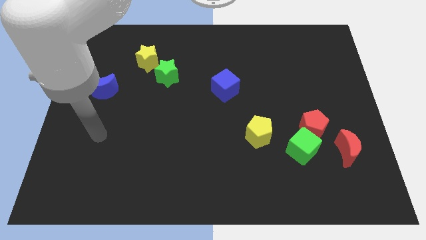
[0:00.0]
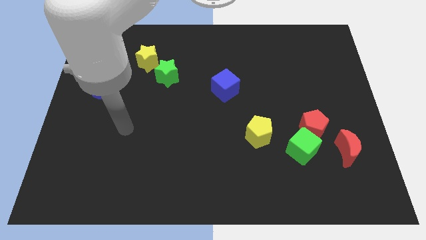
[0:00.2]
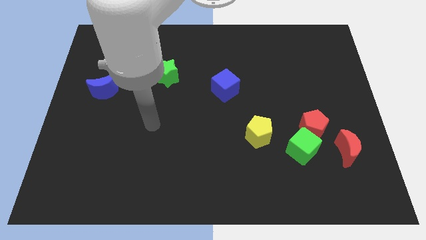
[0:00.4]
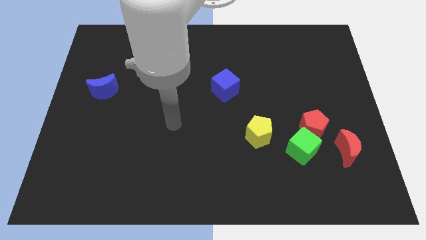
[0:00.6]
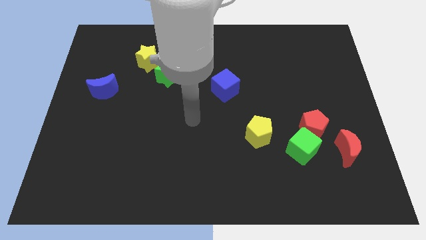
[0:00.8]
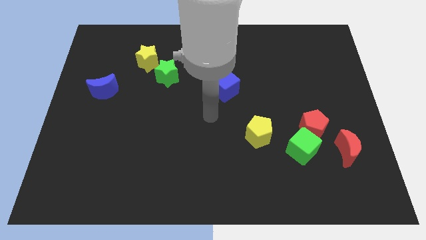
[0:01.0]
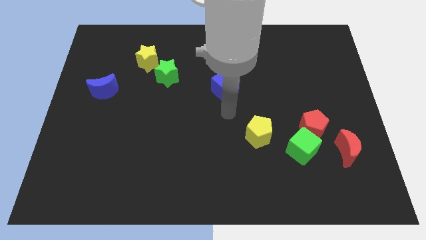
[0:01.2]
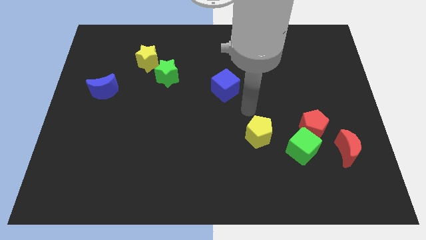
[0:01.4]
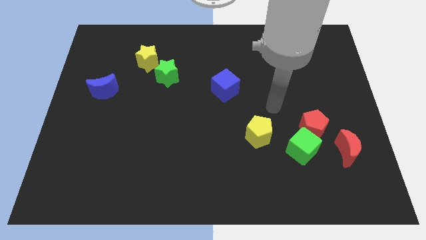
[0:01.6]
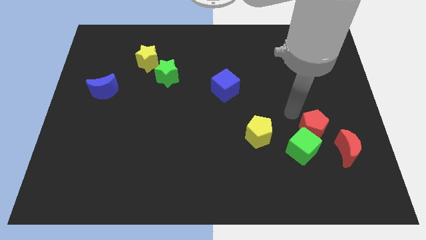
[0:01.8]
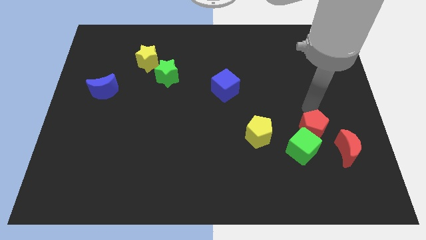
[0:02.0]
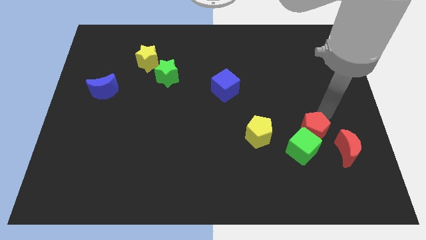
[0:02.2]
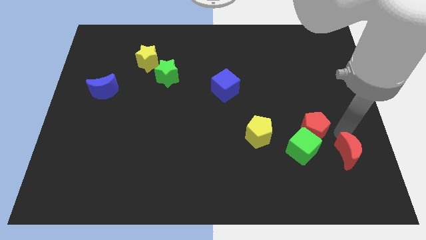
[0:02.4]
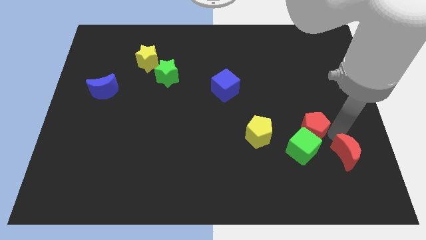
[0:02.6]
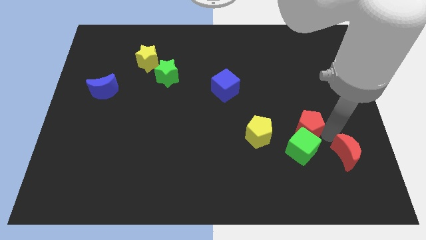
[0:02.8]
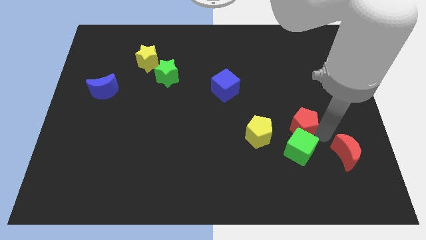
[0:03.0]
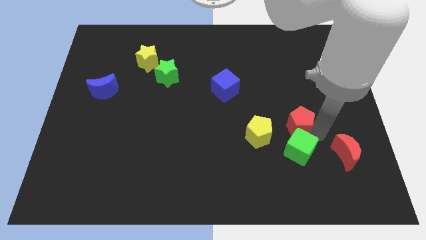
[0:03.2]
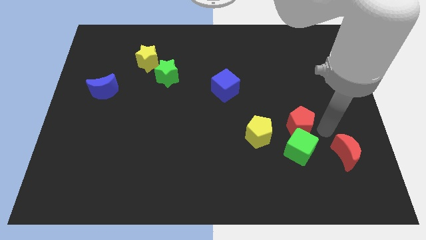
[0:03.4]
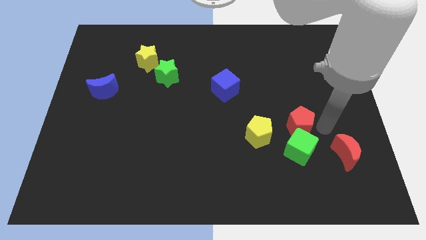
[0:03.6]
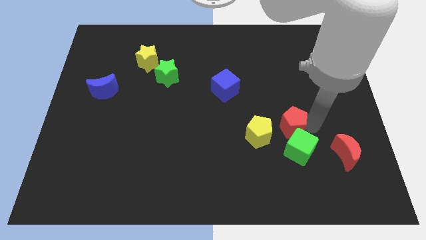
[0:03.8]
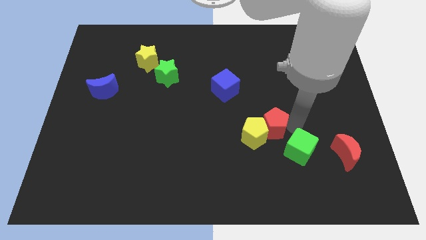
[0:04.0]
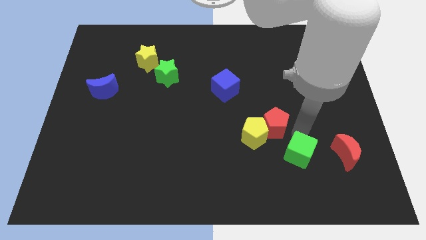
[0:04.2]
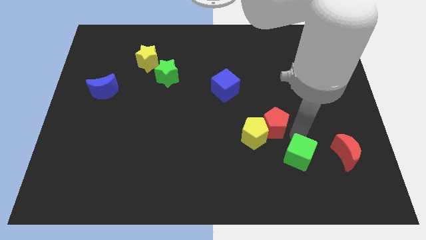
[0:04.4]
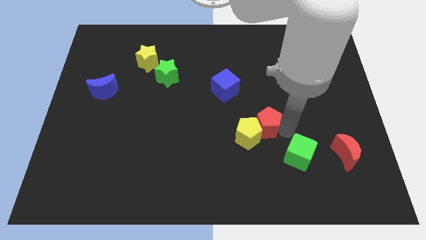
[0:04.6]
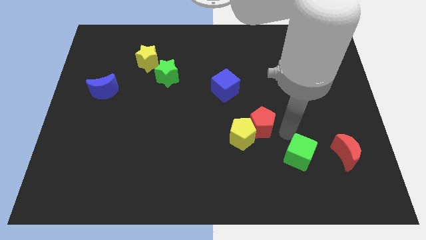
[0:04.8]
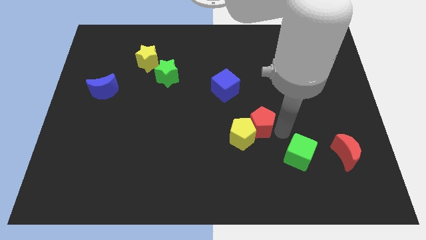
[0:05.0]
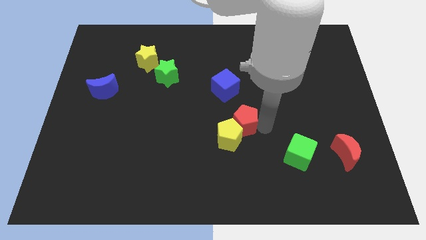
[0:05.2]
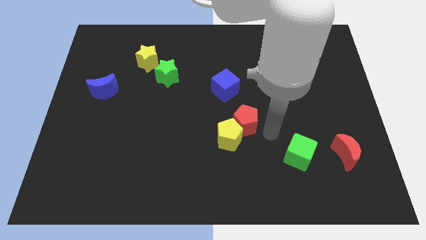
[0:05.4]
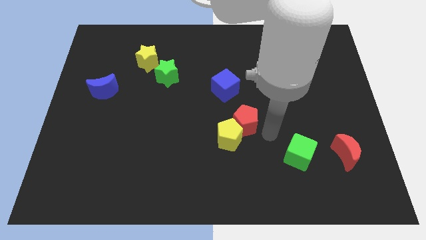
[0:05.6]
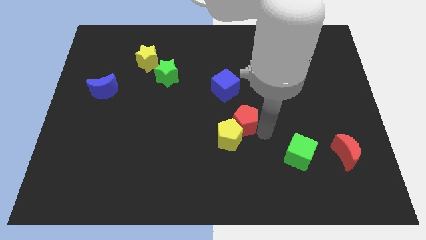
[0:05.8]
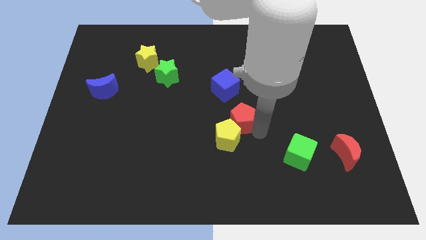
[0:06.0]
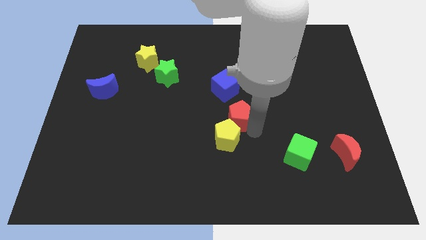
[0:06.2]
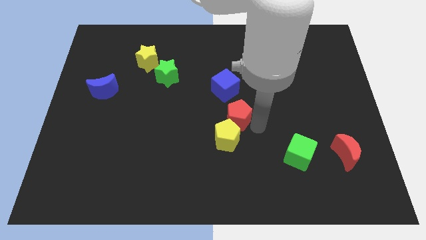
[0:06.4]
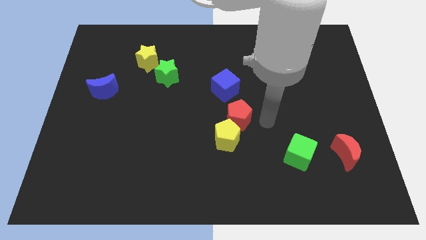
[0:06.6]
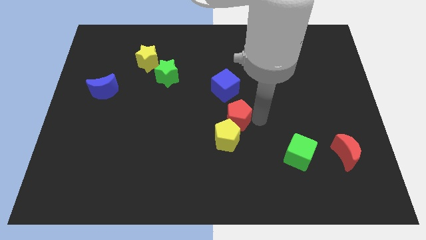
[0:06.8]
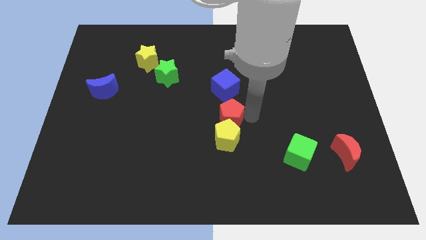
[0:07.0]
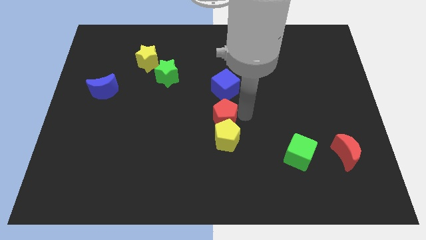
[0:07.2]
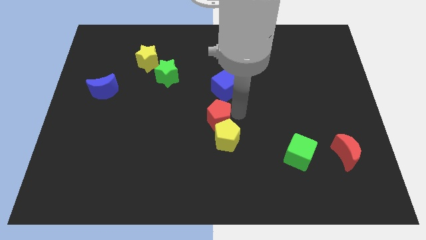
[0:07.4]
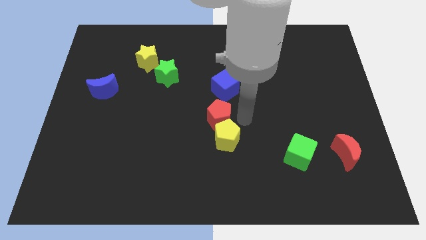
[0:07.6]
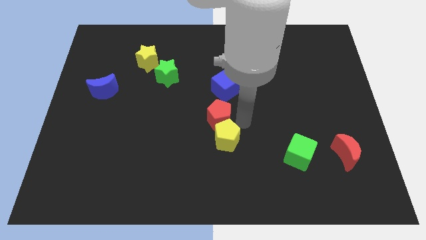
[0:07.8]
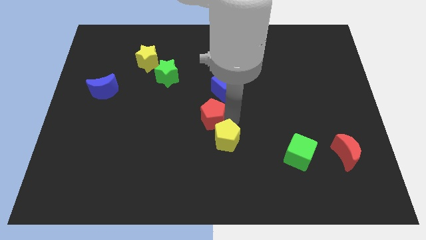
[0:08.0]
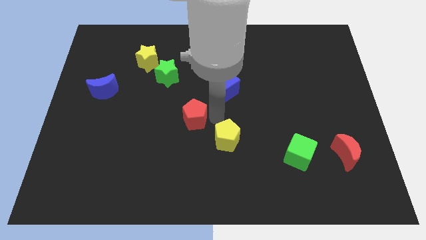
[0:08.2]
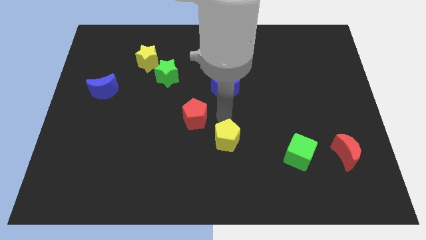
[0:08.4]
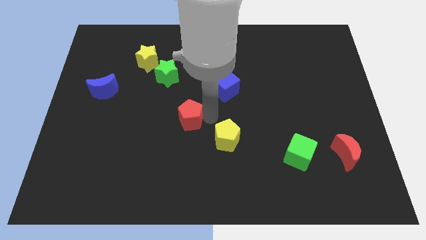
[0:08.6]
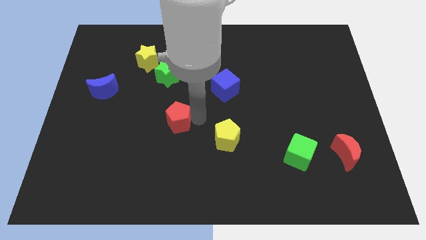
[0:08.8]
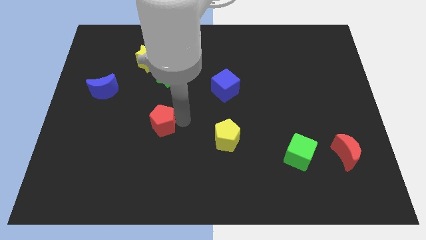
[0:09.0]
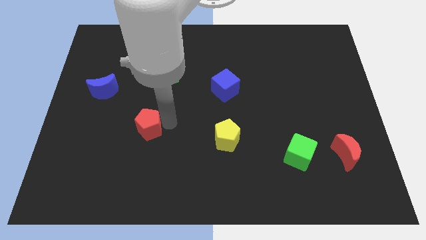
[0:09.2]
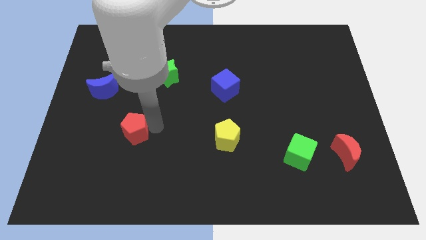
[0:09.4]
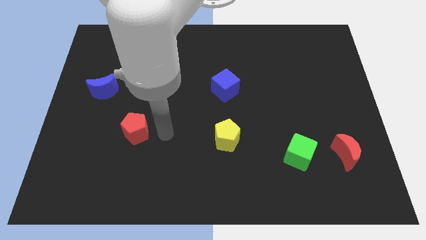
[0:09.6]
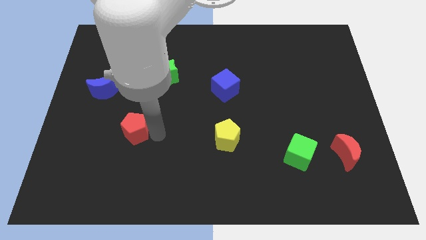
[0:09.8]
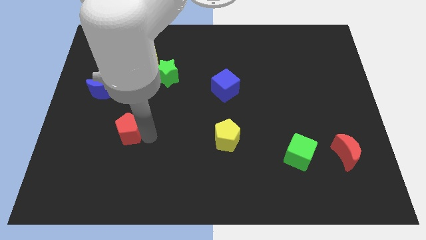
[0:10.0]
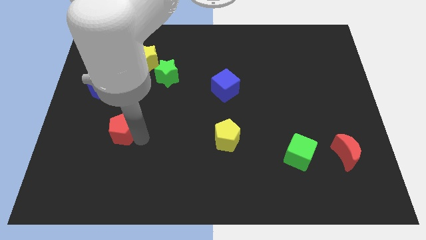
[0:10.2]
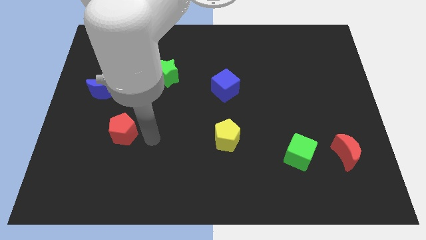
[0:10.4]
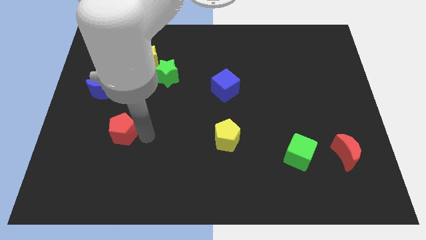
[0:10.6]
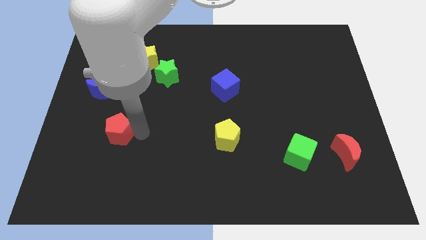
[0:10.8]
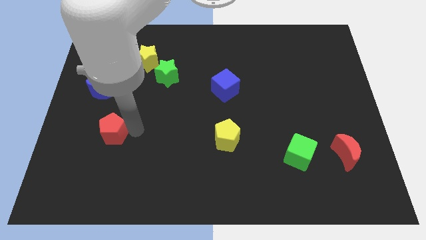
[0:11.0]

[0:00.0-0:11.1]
move the red pentagon to the bottom side of the blue moon

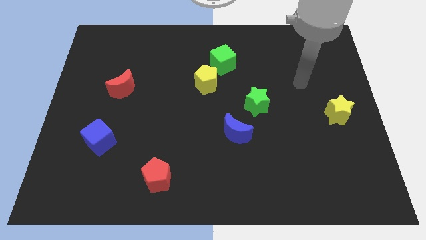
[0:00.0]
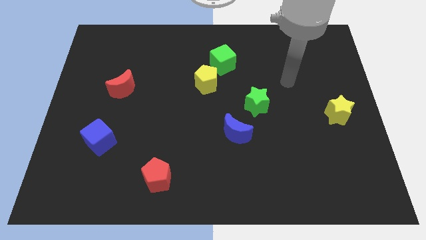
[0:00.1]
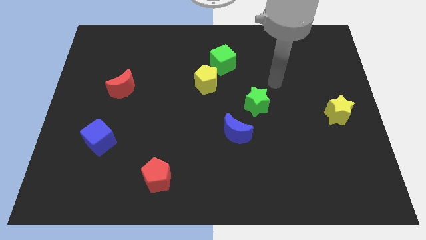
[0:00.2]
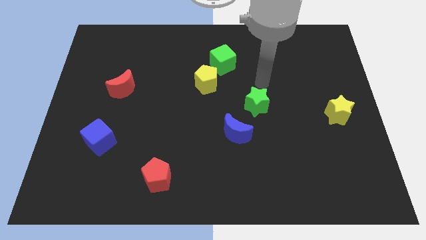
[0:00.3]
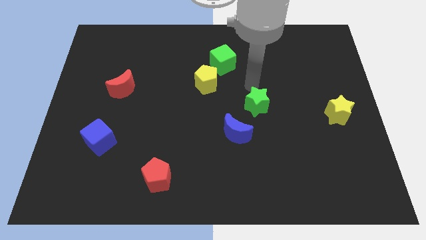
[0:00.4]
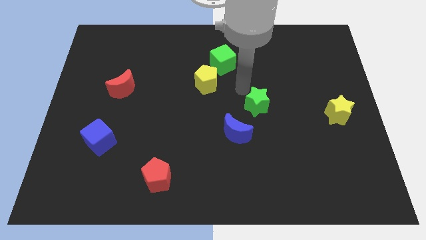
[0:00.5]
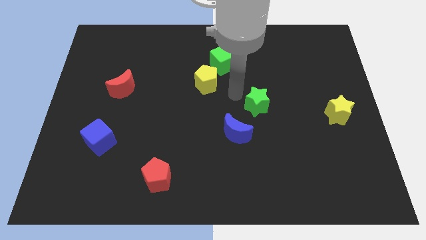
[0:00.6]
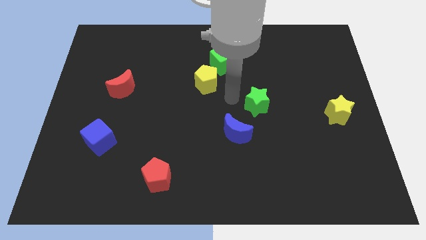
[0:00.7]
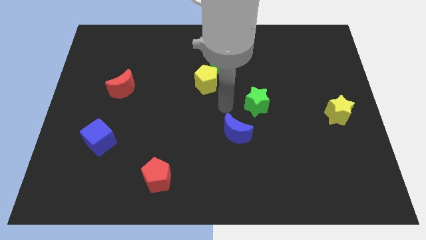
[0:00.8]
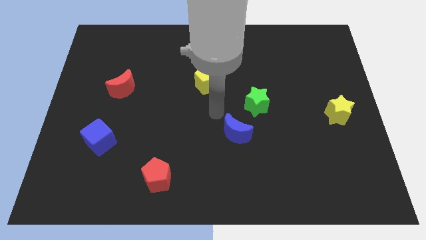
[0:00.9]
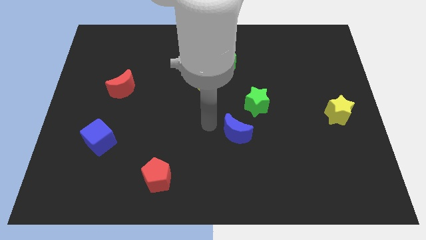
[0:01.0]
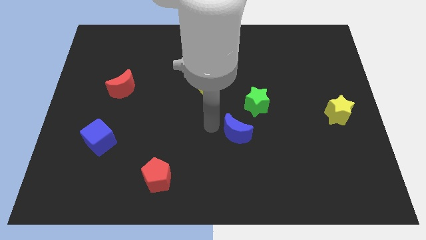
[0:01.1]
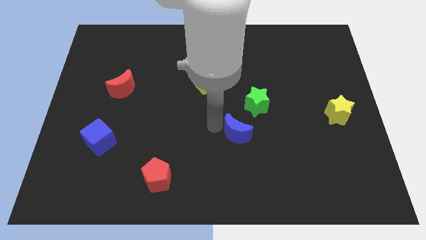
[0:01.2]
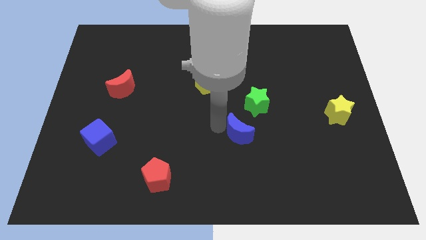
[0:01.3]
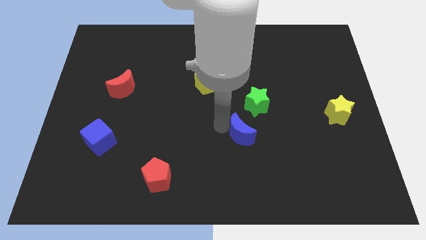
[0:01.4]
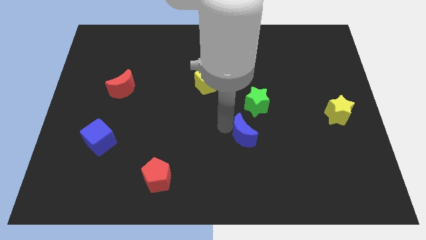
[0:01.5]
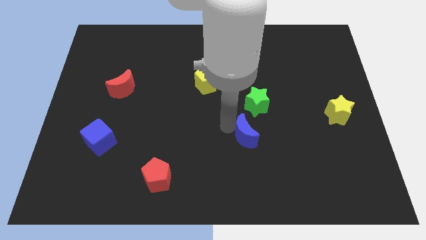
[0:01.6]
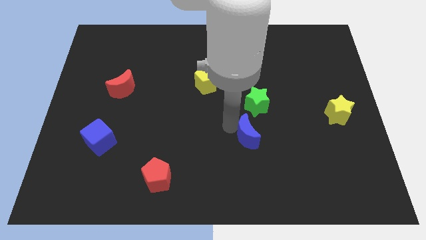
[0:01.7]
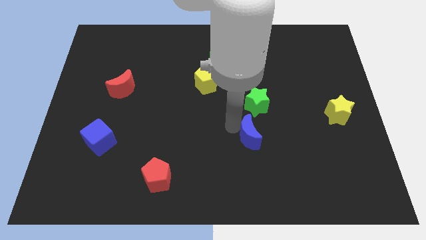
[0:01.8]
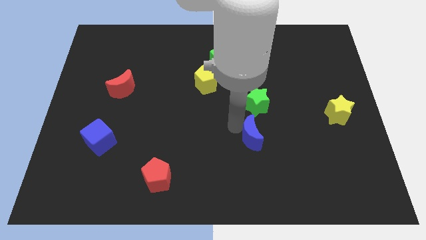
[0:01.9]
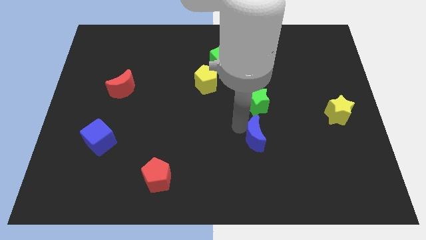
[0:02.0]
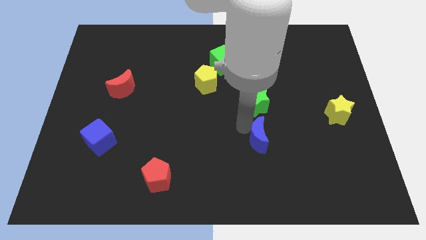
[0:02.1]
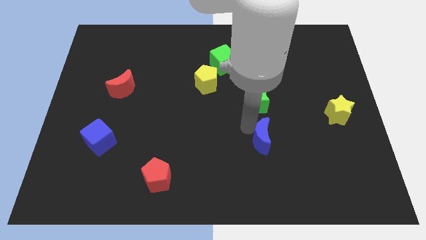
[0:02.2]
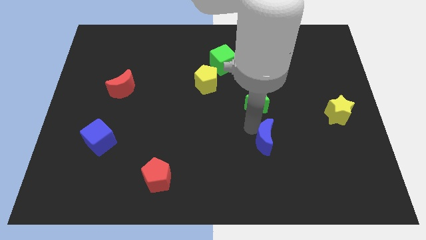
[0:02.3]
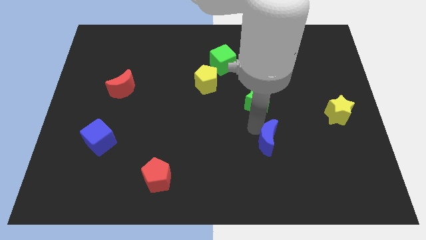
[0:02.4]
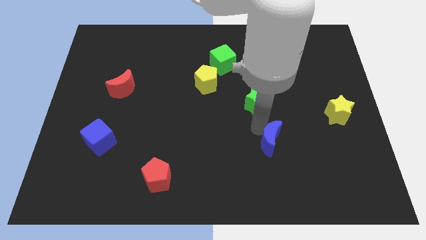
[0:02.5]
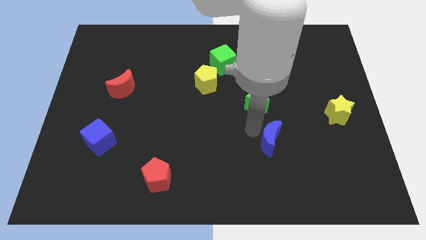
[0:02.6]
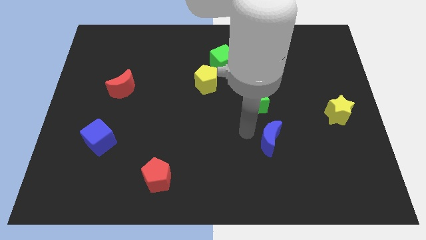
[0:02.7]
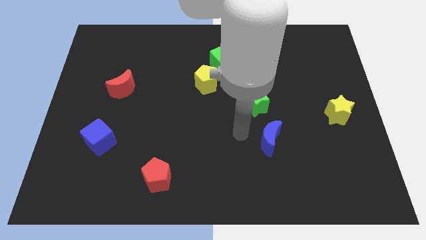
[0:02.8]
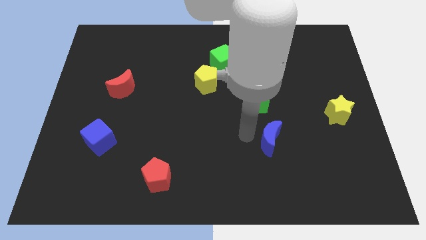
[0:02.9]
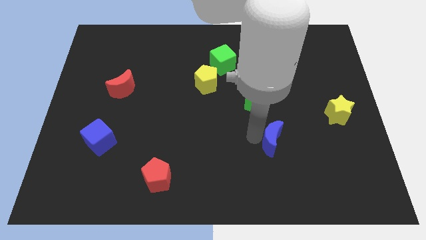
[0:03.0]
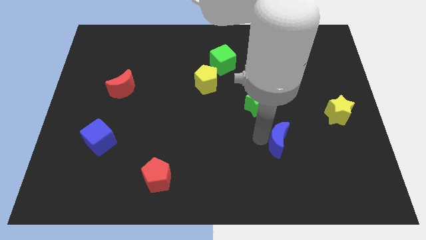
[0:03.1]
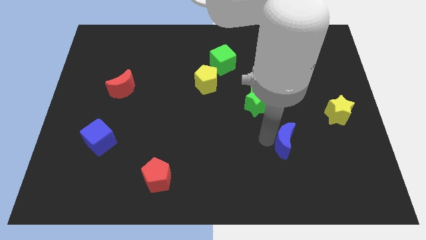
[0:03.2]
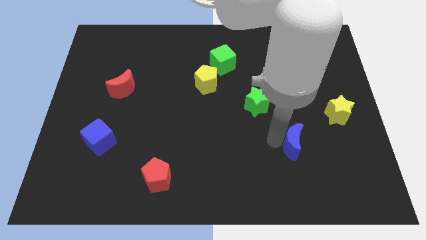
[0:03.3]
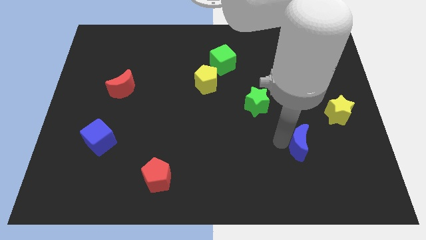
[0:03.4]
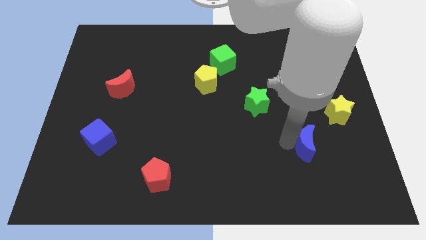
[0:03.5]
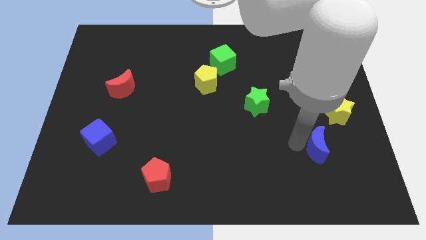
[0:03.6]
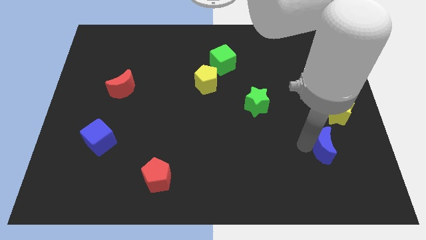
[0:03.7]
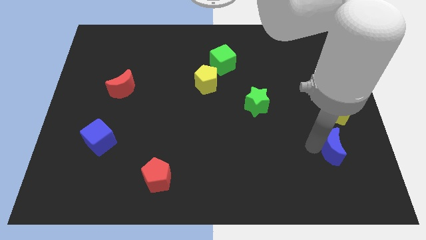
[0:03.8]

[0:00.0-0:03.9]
slide the blue moon to the bottom of the yellow star
